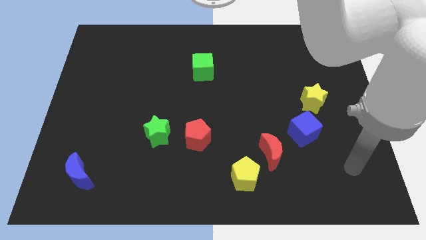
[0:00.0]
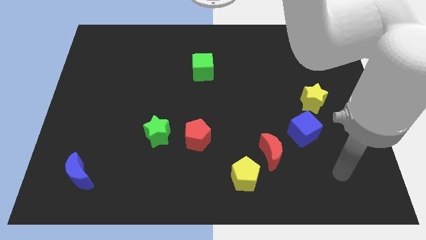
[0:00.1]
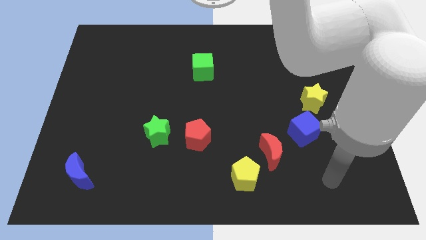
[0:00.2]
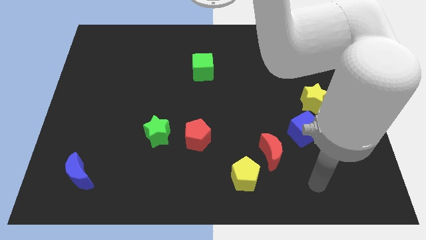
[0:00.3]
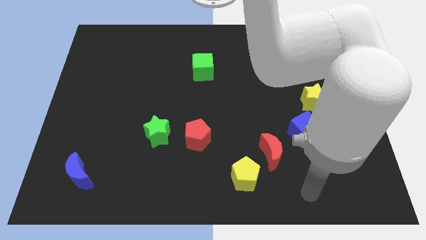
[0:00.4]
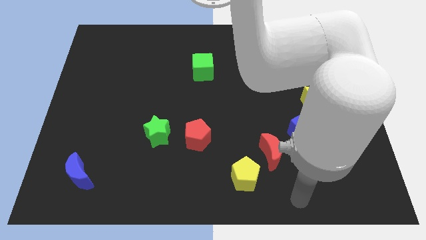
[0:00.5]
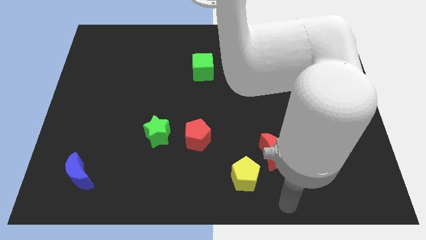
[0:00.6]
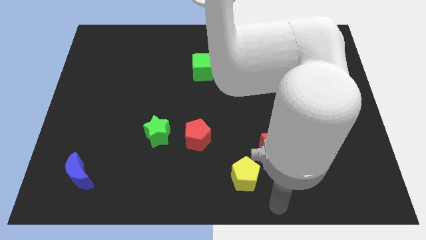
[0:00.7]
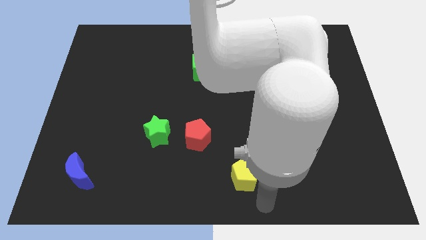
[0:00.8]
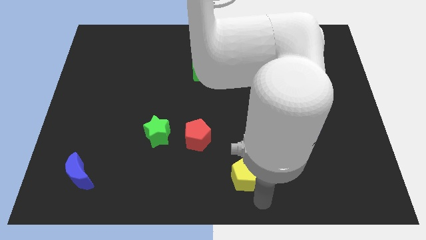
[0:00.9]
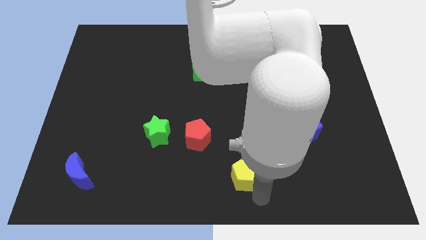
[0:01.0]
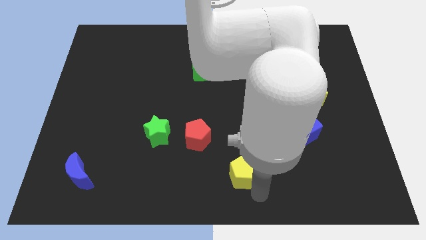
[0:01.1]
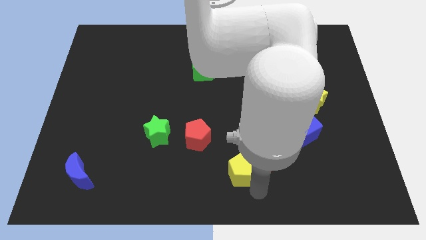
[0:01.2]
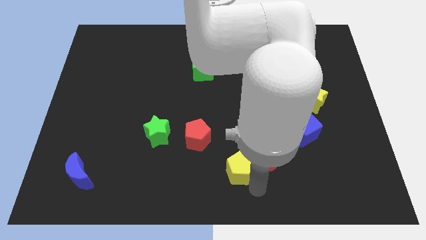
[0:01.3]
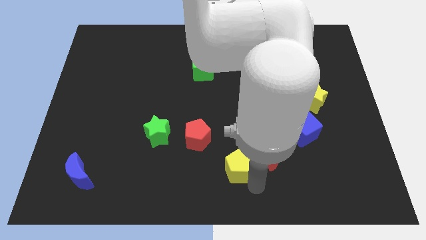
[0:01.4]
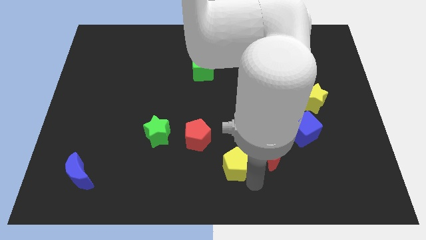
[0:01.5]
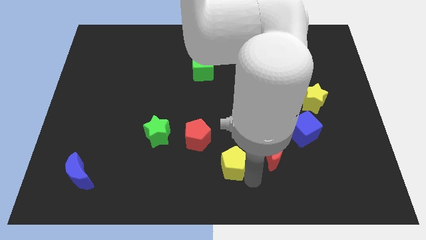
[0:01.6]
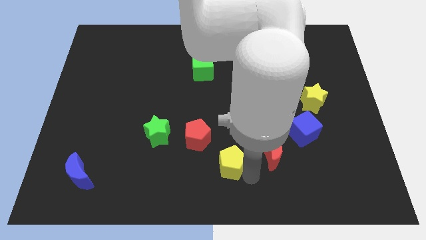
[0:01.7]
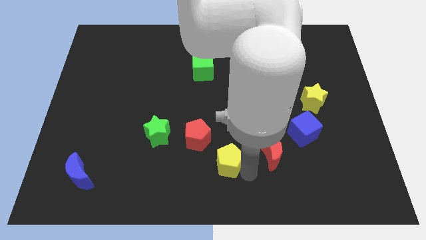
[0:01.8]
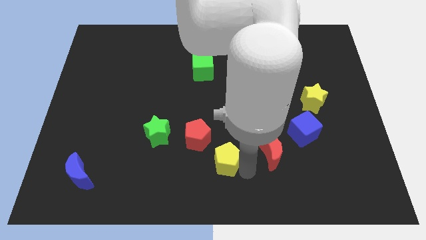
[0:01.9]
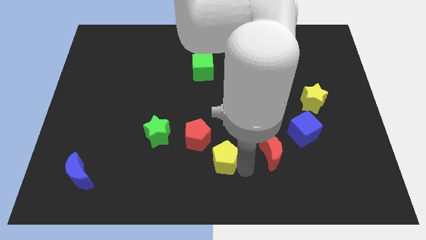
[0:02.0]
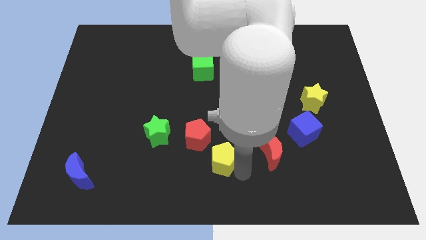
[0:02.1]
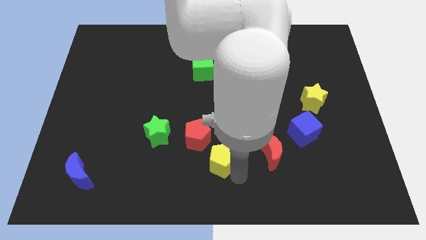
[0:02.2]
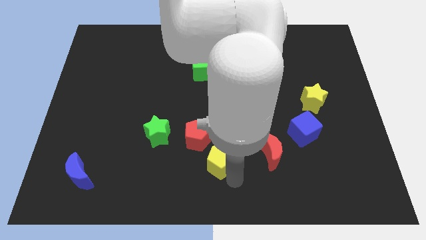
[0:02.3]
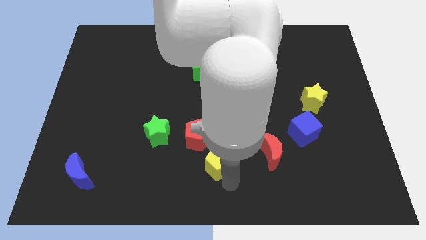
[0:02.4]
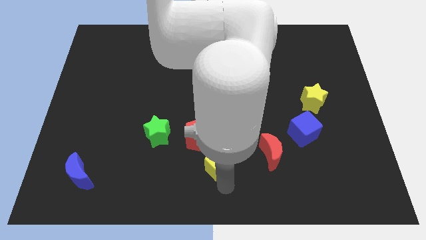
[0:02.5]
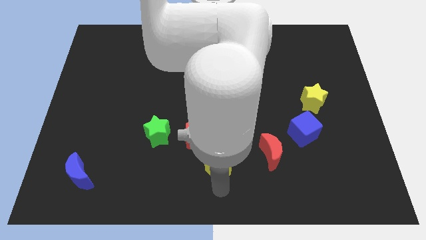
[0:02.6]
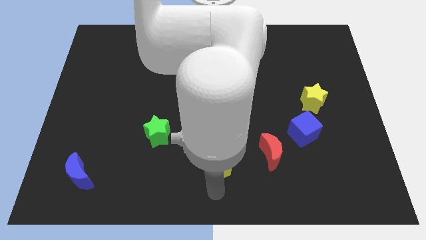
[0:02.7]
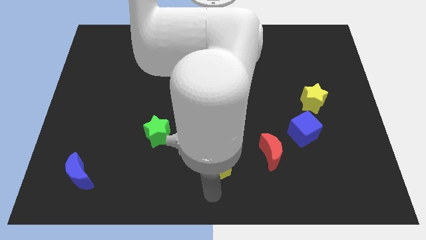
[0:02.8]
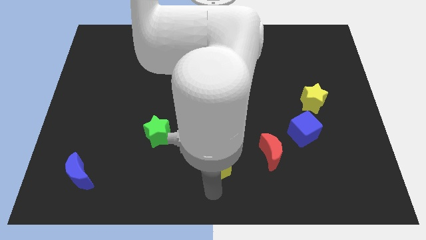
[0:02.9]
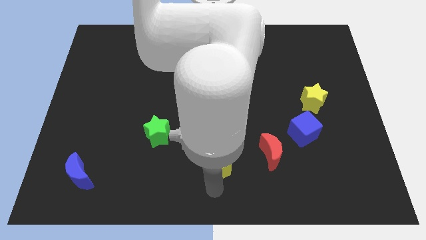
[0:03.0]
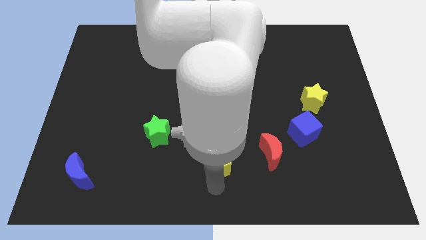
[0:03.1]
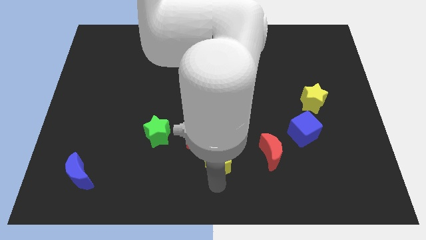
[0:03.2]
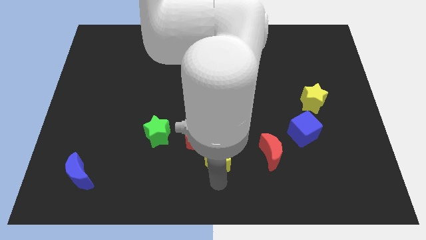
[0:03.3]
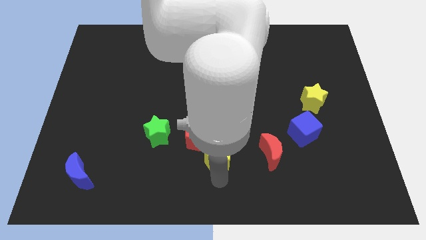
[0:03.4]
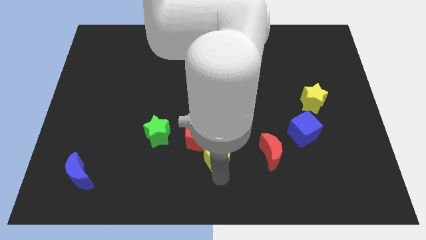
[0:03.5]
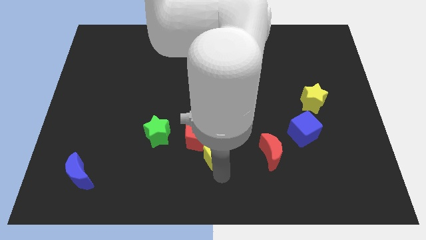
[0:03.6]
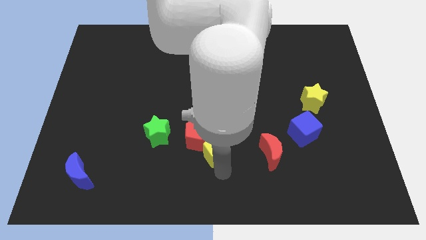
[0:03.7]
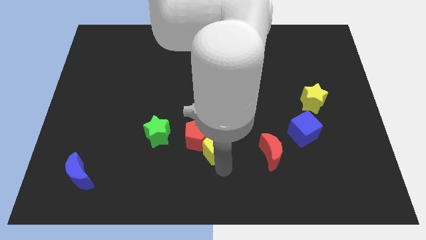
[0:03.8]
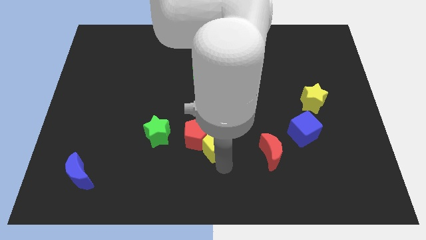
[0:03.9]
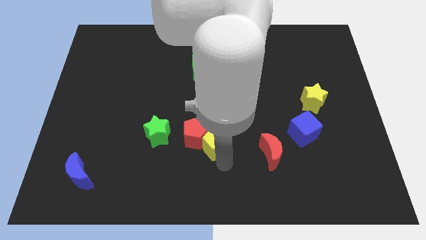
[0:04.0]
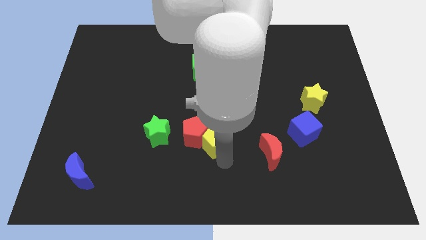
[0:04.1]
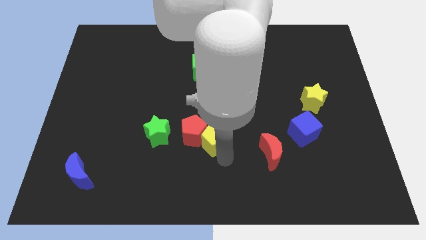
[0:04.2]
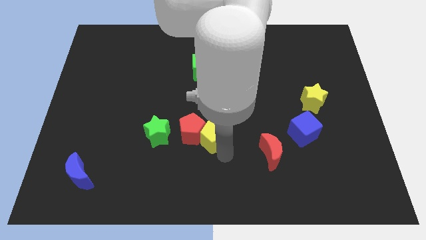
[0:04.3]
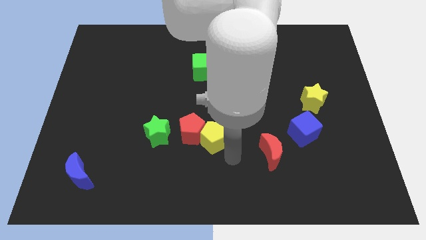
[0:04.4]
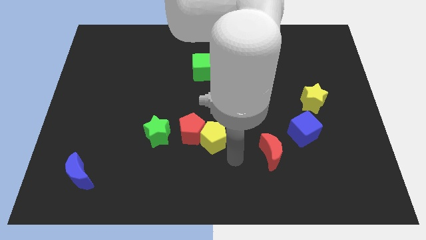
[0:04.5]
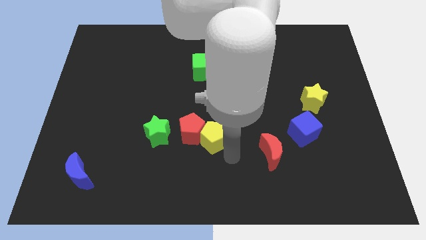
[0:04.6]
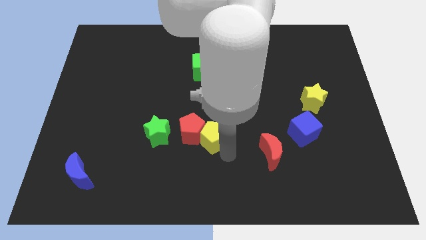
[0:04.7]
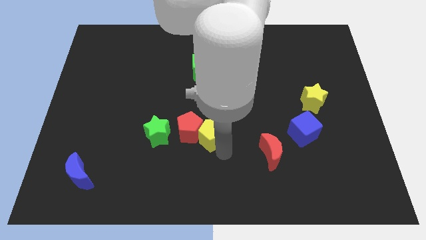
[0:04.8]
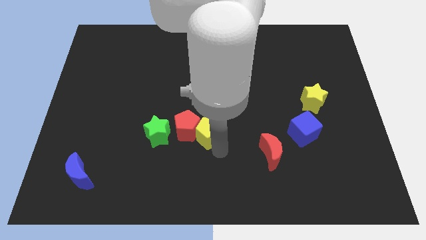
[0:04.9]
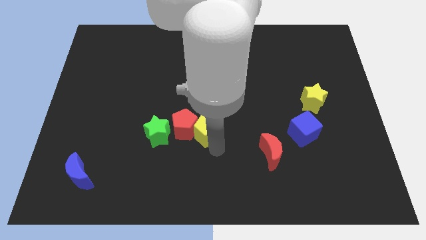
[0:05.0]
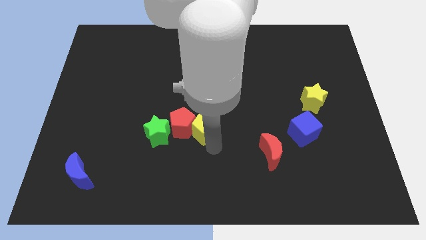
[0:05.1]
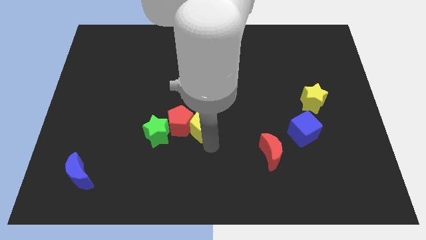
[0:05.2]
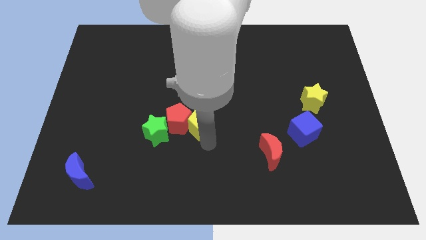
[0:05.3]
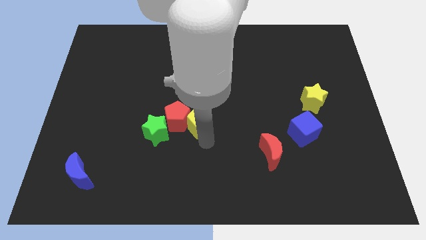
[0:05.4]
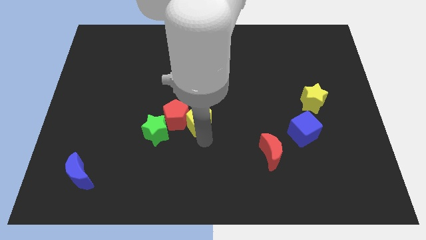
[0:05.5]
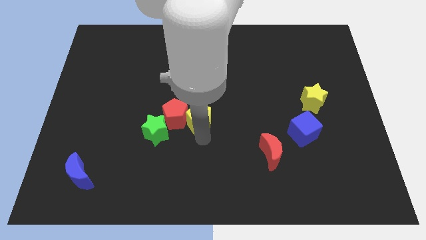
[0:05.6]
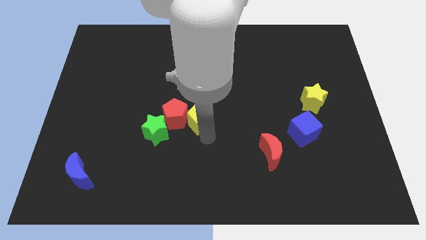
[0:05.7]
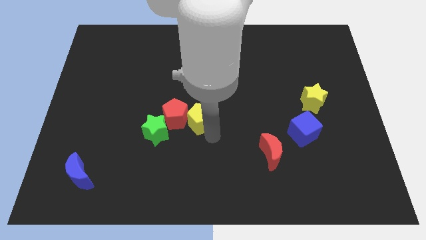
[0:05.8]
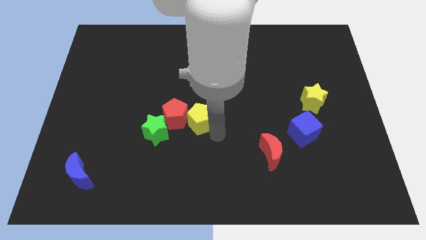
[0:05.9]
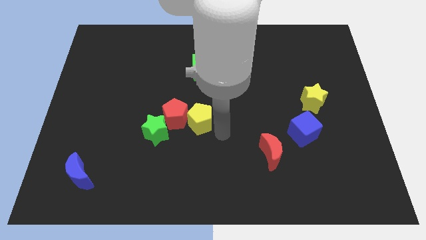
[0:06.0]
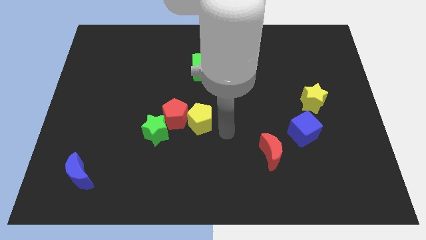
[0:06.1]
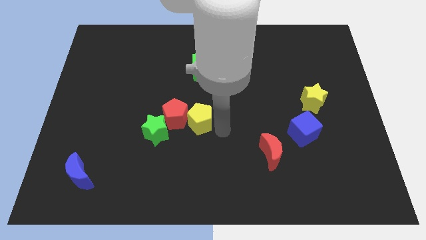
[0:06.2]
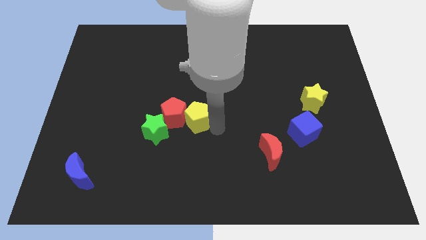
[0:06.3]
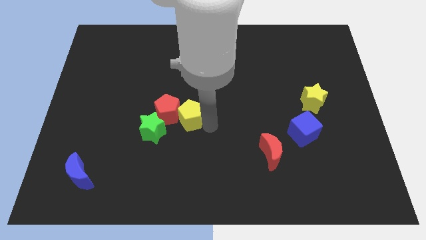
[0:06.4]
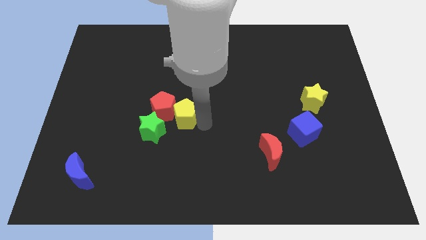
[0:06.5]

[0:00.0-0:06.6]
slide the yellow pentagon upwards and then left

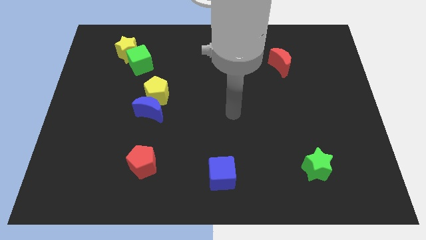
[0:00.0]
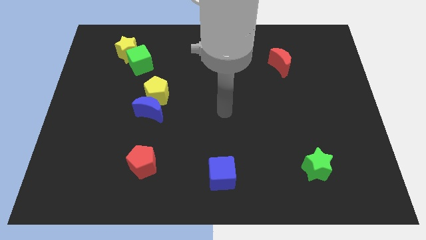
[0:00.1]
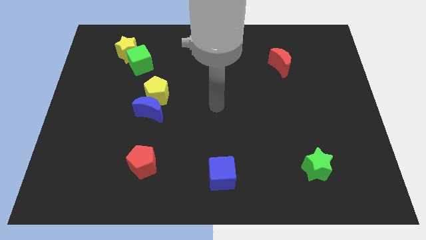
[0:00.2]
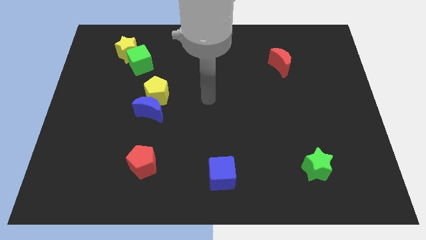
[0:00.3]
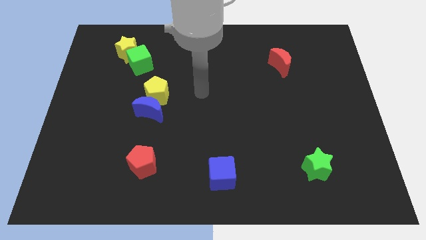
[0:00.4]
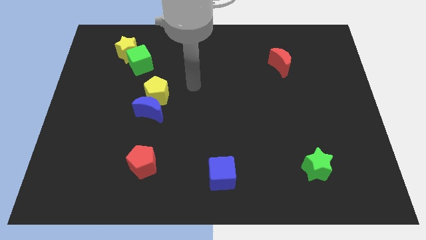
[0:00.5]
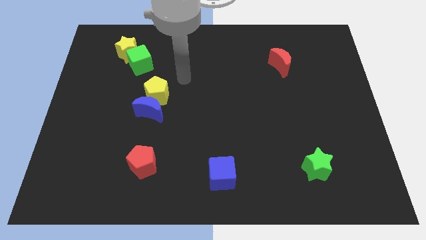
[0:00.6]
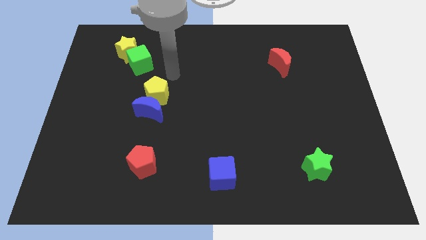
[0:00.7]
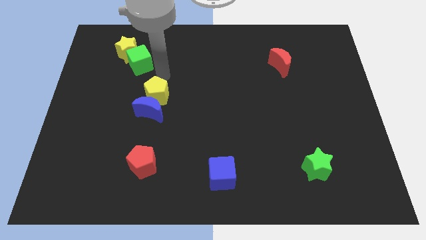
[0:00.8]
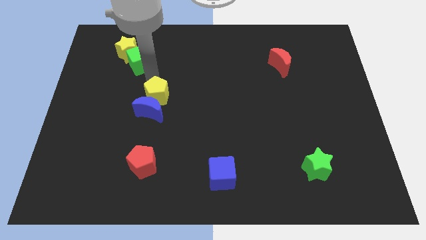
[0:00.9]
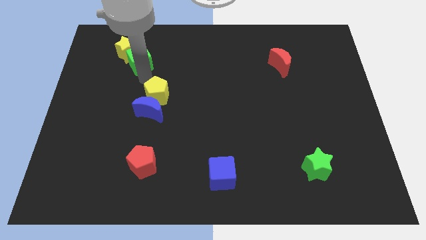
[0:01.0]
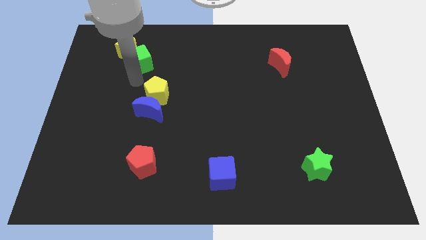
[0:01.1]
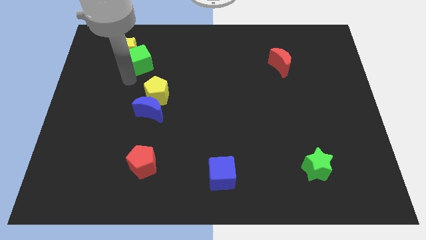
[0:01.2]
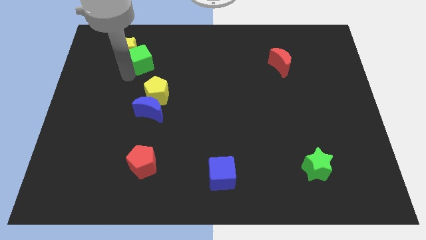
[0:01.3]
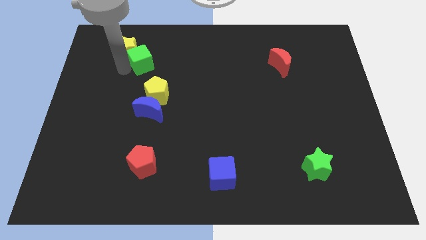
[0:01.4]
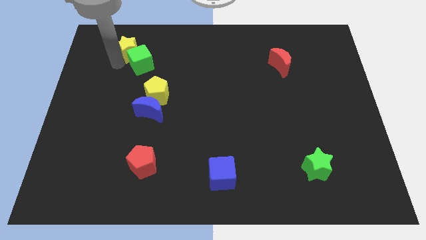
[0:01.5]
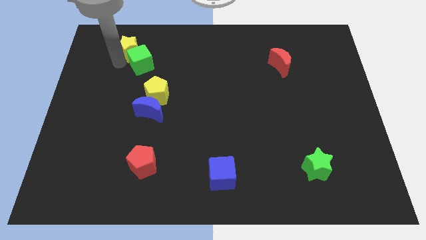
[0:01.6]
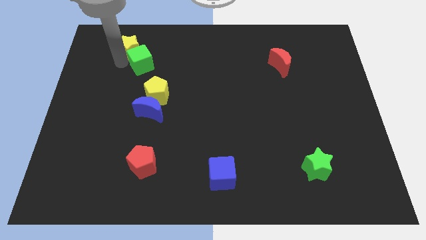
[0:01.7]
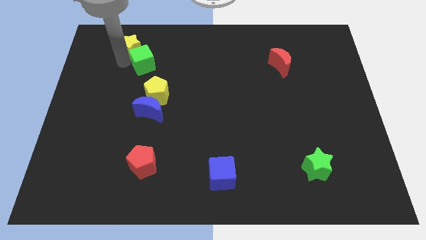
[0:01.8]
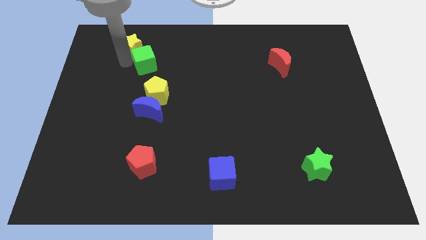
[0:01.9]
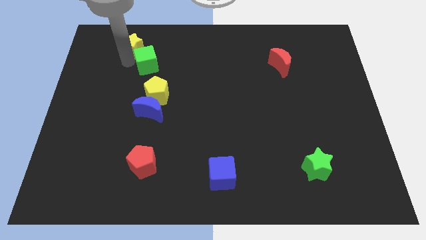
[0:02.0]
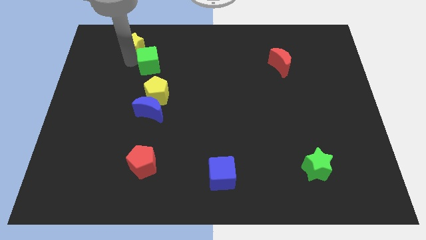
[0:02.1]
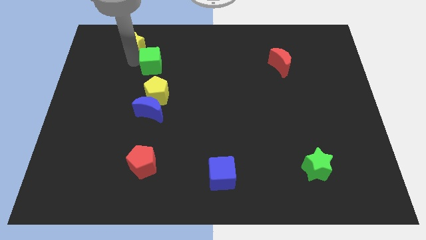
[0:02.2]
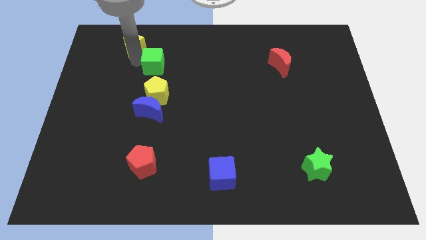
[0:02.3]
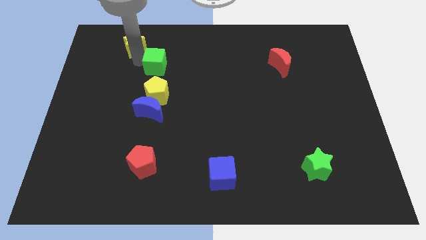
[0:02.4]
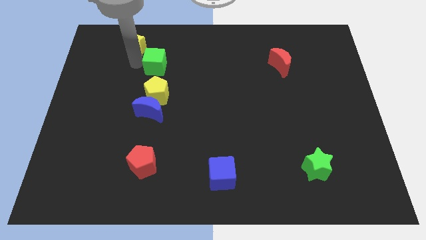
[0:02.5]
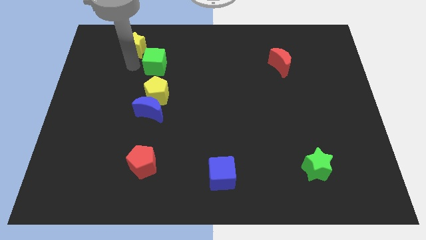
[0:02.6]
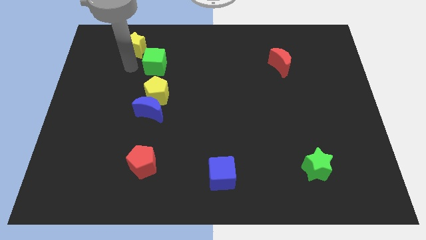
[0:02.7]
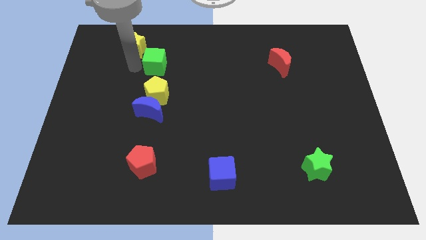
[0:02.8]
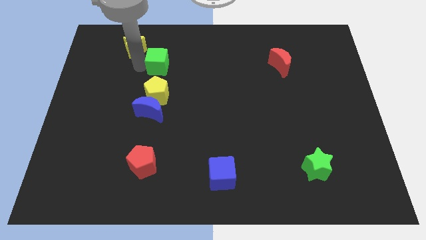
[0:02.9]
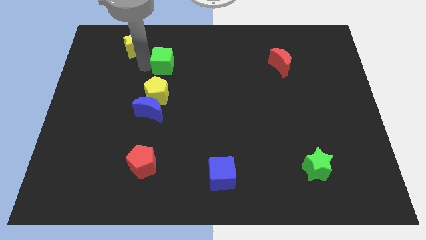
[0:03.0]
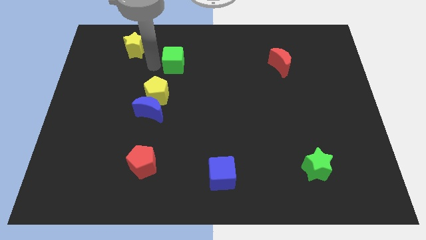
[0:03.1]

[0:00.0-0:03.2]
slide the green cube to the right a little bit
